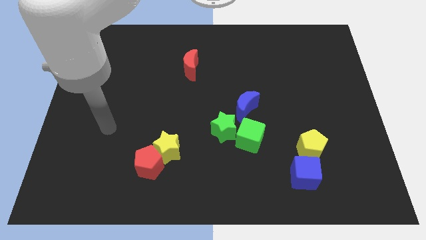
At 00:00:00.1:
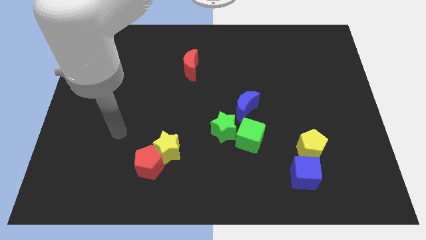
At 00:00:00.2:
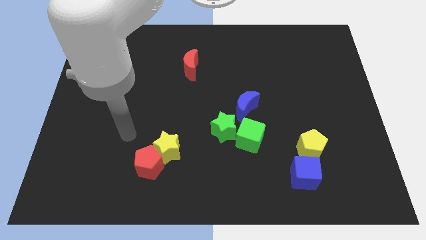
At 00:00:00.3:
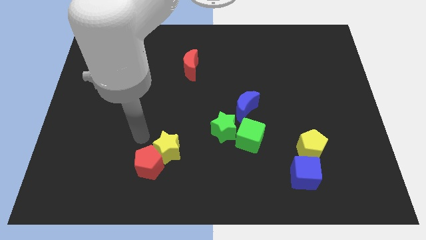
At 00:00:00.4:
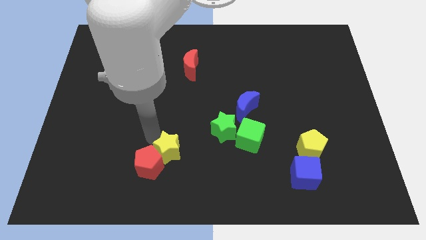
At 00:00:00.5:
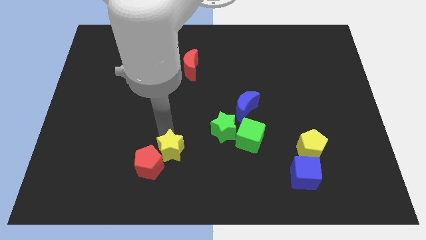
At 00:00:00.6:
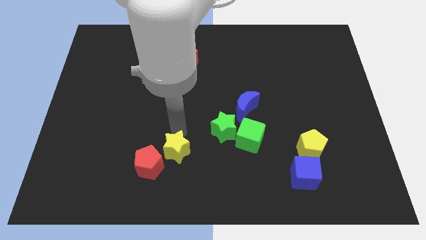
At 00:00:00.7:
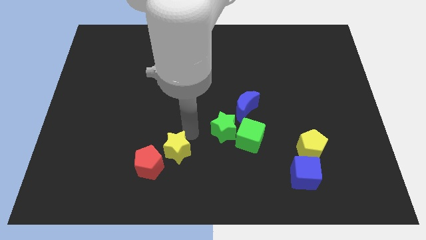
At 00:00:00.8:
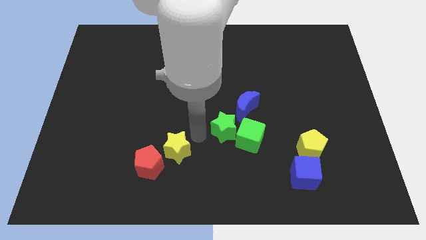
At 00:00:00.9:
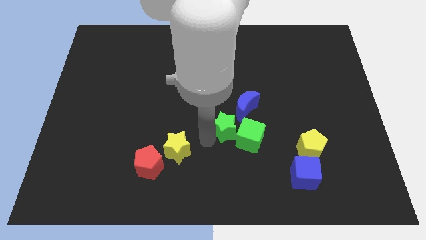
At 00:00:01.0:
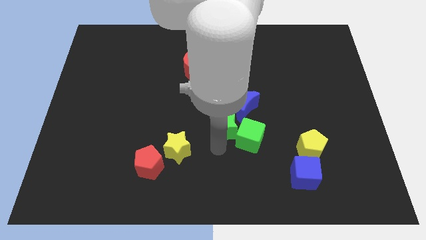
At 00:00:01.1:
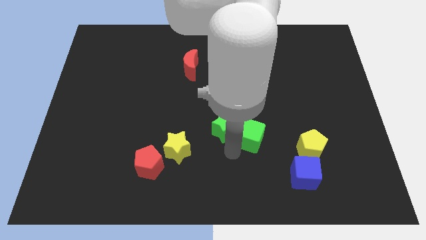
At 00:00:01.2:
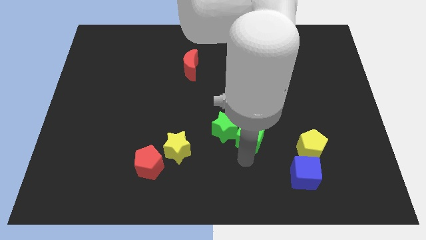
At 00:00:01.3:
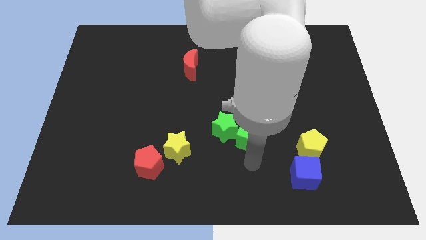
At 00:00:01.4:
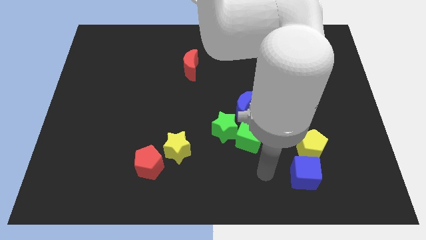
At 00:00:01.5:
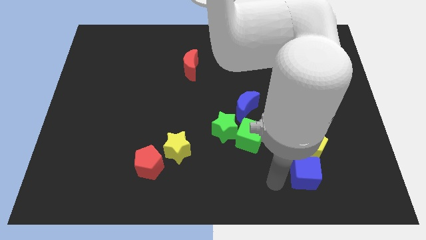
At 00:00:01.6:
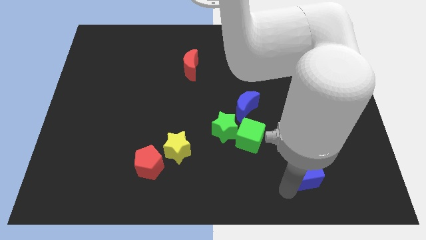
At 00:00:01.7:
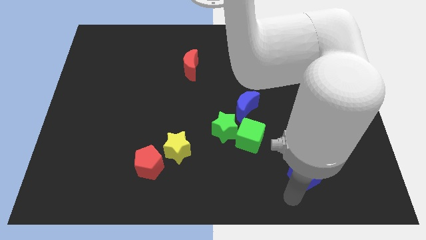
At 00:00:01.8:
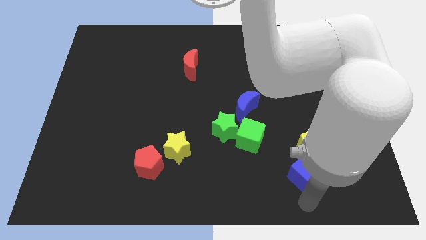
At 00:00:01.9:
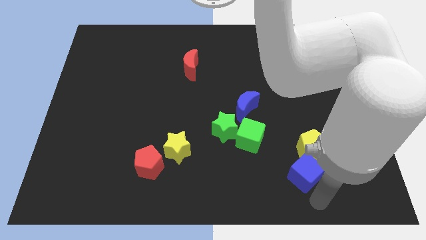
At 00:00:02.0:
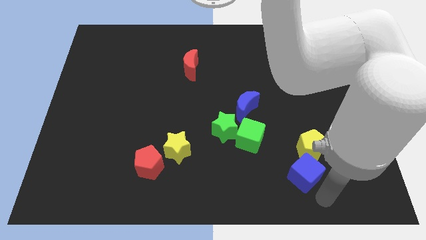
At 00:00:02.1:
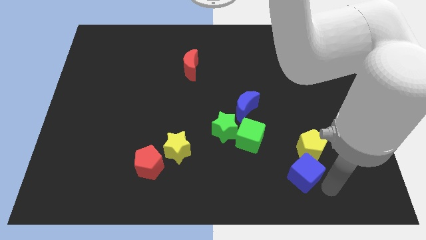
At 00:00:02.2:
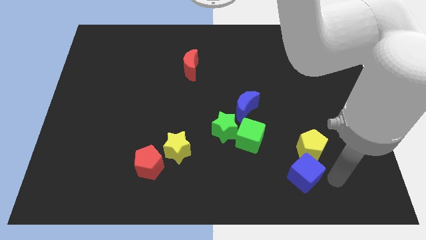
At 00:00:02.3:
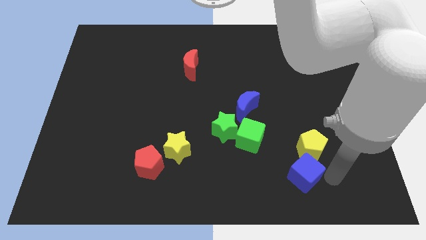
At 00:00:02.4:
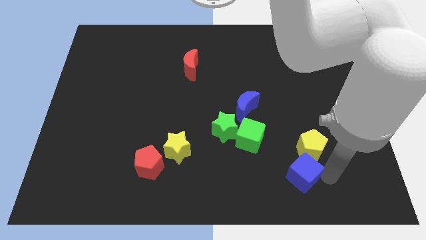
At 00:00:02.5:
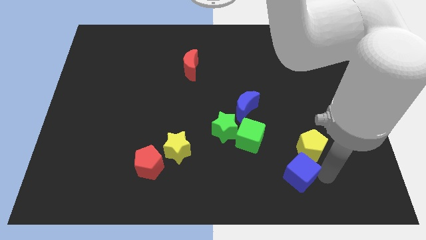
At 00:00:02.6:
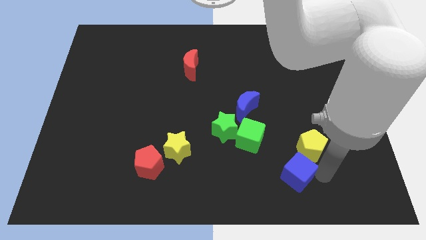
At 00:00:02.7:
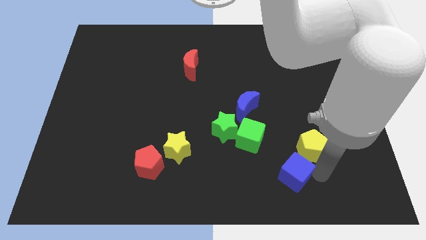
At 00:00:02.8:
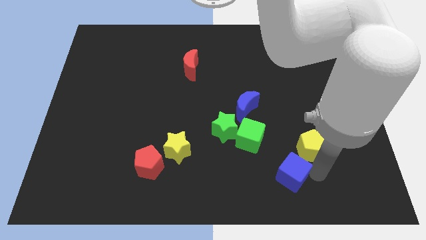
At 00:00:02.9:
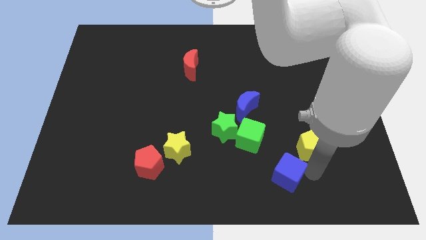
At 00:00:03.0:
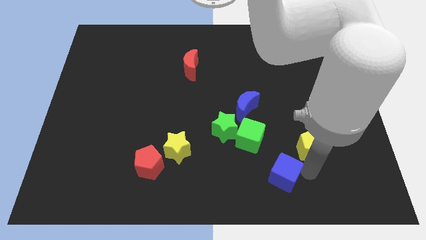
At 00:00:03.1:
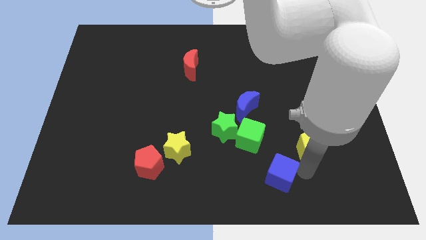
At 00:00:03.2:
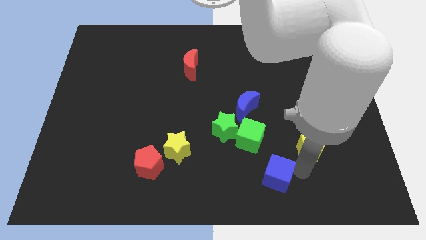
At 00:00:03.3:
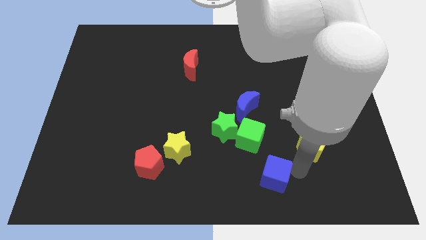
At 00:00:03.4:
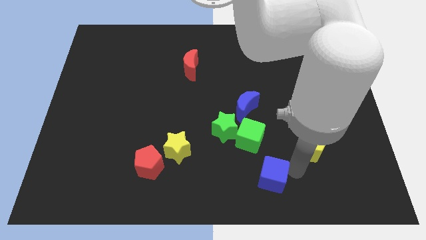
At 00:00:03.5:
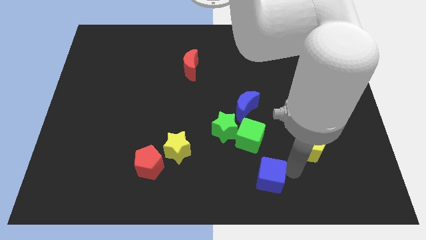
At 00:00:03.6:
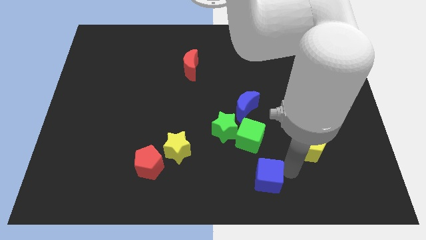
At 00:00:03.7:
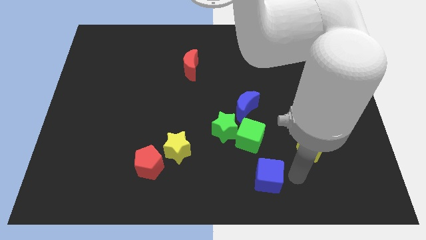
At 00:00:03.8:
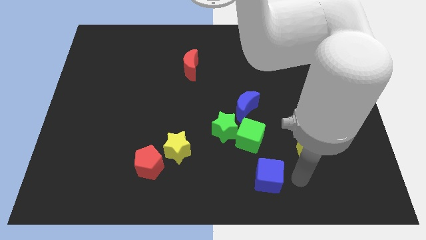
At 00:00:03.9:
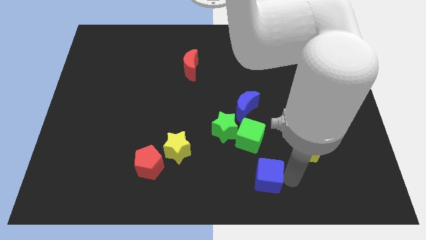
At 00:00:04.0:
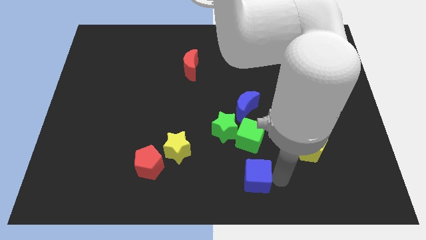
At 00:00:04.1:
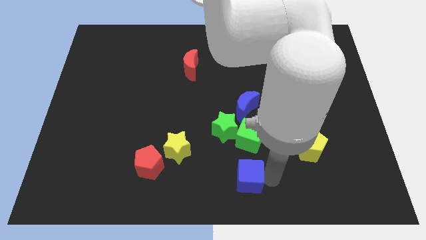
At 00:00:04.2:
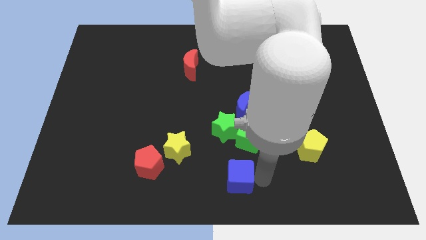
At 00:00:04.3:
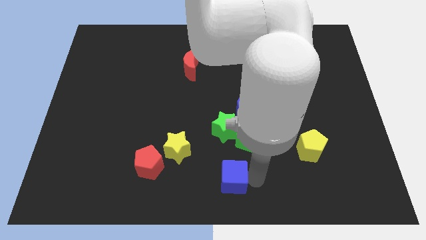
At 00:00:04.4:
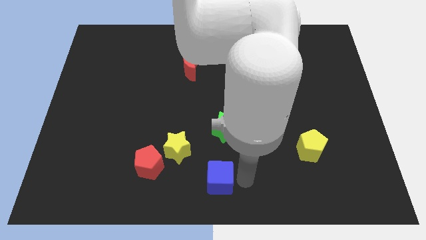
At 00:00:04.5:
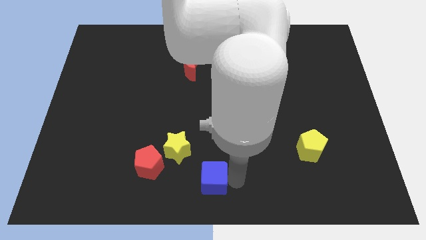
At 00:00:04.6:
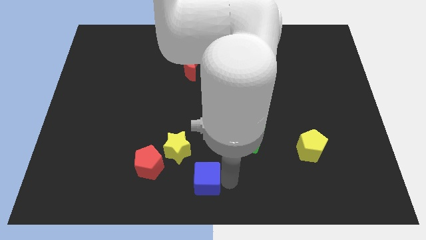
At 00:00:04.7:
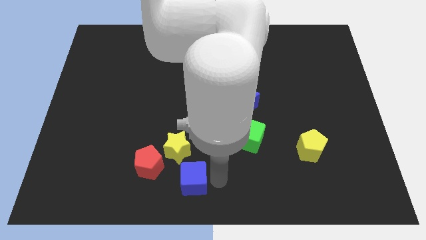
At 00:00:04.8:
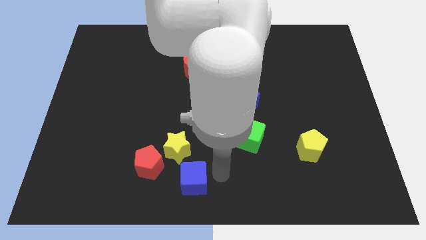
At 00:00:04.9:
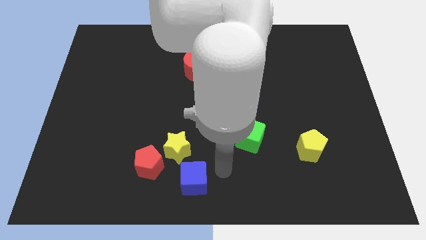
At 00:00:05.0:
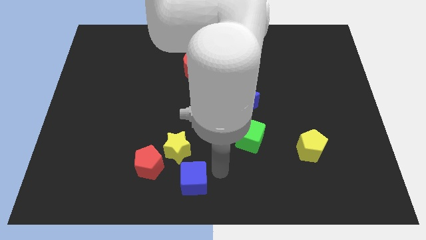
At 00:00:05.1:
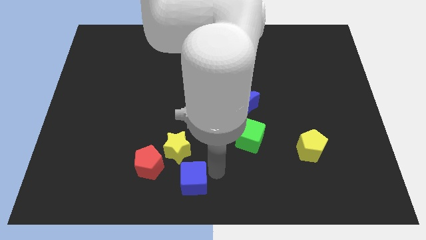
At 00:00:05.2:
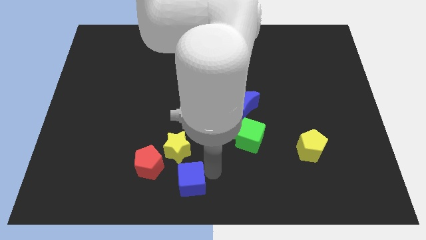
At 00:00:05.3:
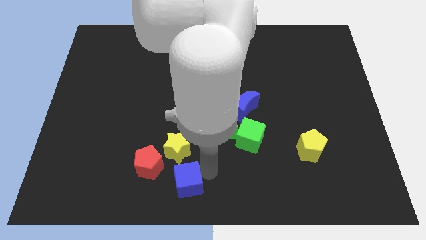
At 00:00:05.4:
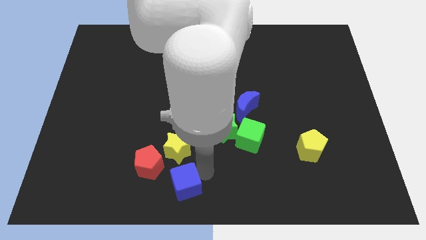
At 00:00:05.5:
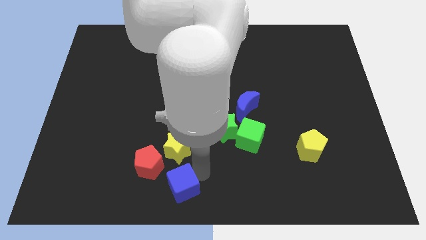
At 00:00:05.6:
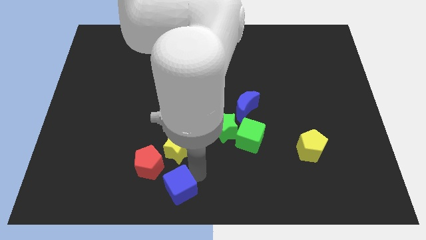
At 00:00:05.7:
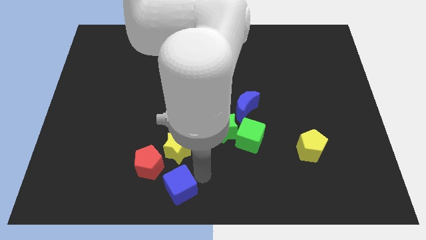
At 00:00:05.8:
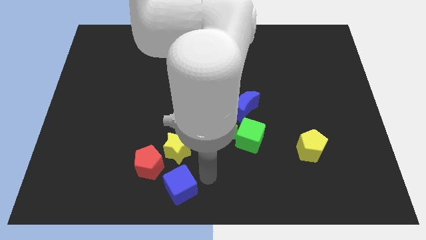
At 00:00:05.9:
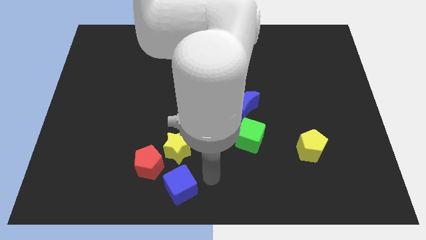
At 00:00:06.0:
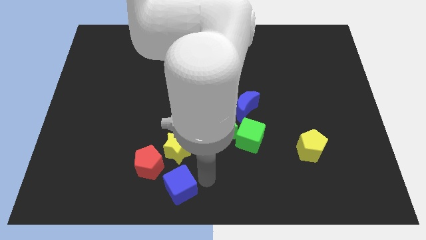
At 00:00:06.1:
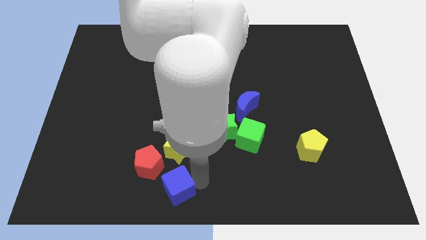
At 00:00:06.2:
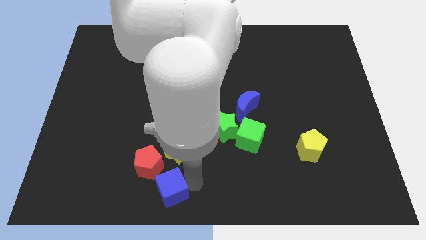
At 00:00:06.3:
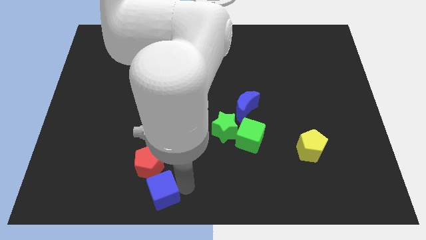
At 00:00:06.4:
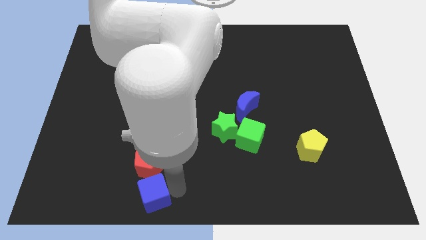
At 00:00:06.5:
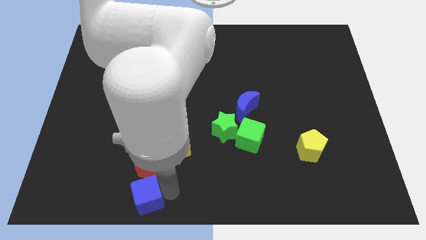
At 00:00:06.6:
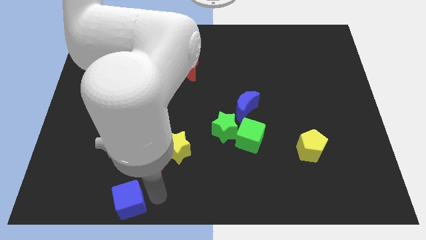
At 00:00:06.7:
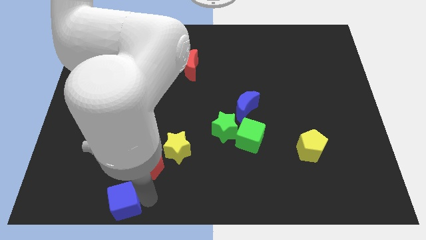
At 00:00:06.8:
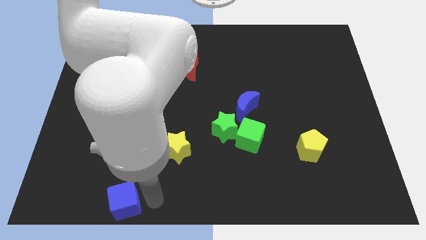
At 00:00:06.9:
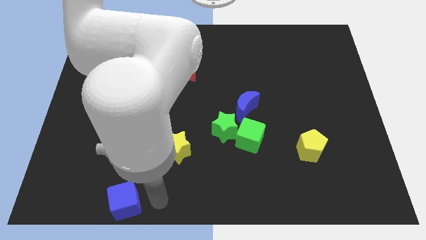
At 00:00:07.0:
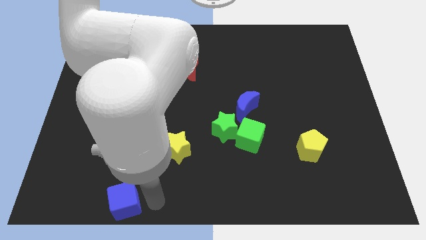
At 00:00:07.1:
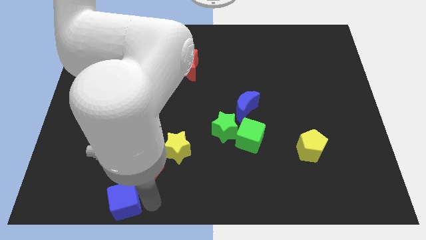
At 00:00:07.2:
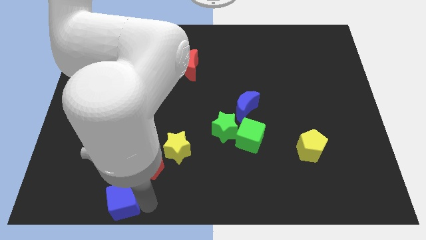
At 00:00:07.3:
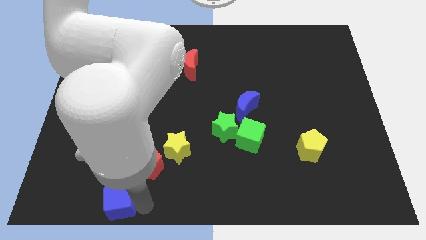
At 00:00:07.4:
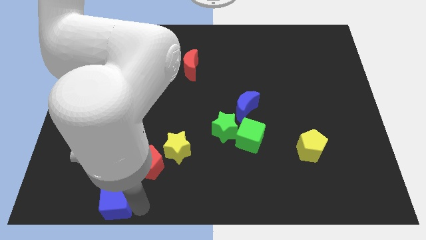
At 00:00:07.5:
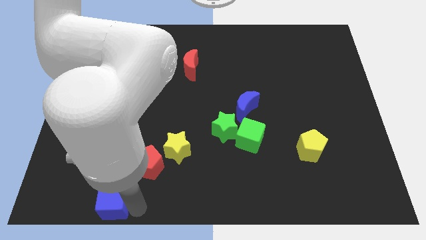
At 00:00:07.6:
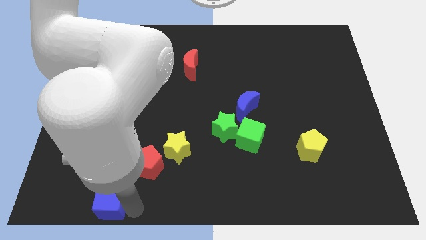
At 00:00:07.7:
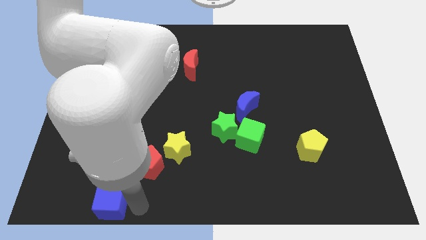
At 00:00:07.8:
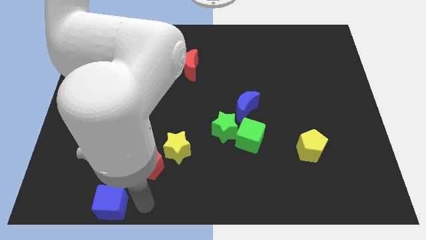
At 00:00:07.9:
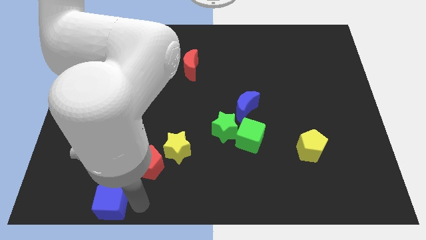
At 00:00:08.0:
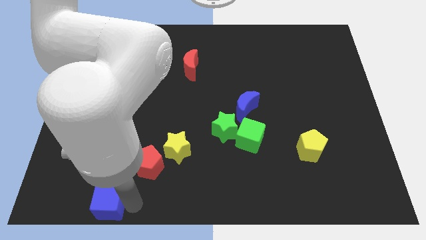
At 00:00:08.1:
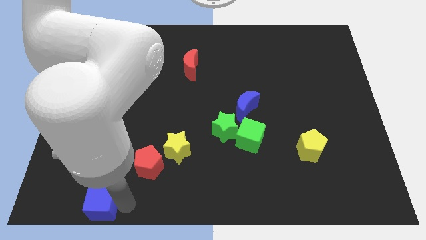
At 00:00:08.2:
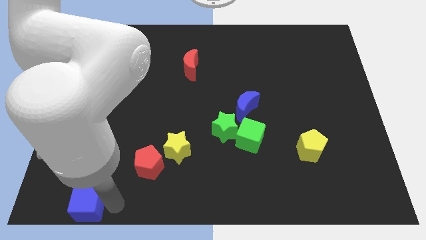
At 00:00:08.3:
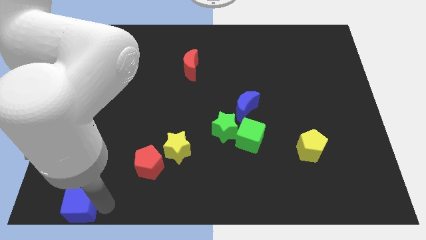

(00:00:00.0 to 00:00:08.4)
move the blue cube to the bottom left corner
